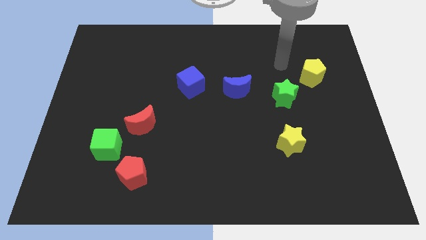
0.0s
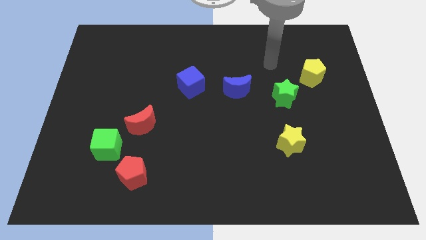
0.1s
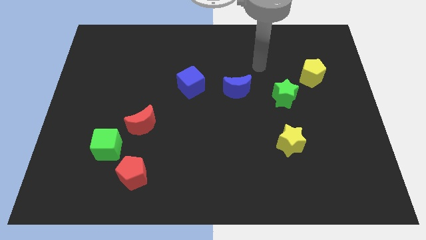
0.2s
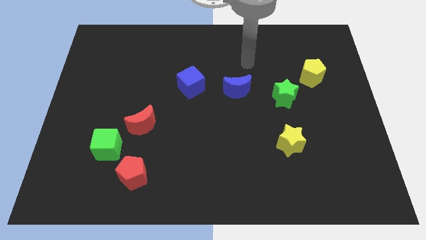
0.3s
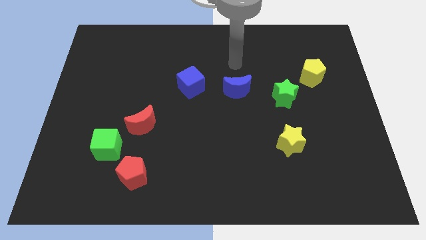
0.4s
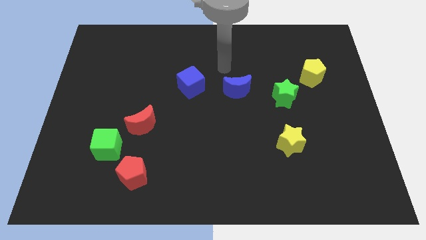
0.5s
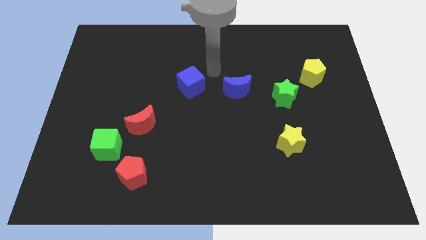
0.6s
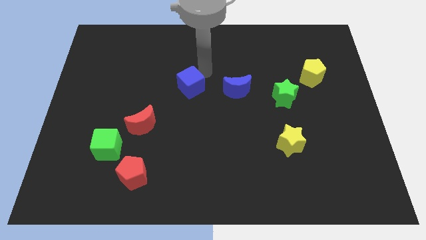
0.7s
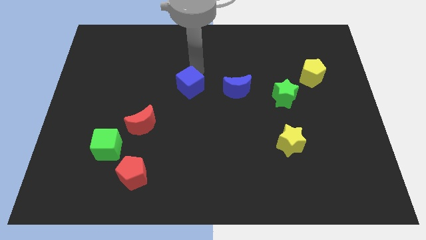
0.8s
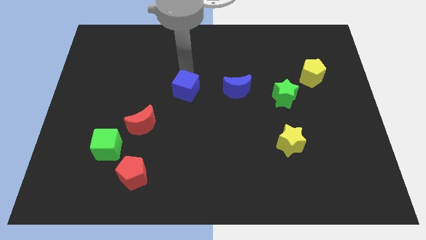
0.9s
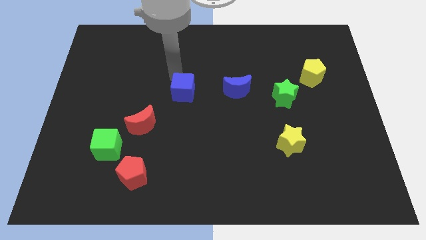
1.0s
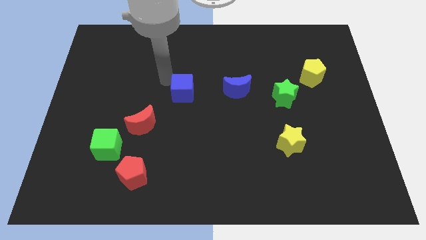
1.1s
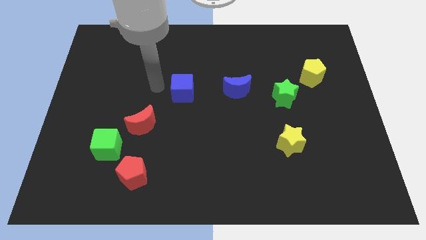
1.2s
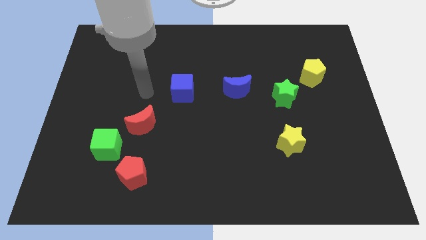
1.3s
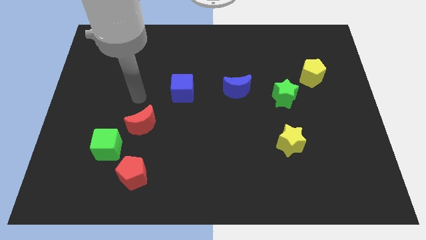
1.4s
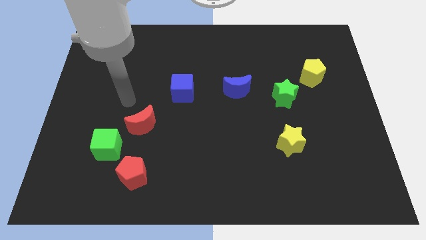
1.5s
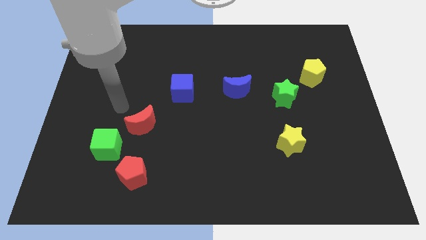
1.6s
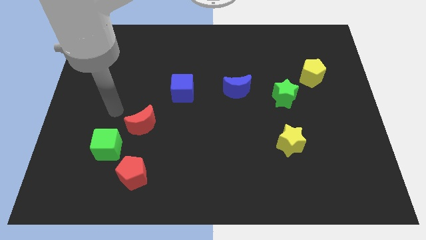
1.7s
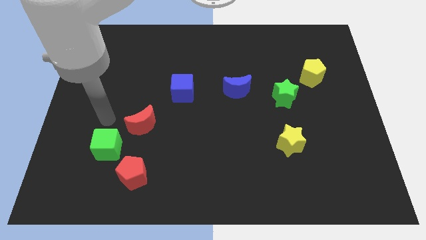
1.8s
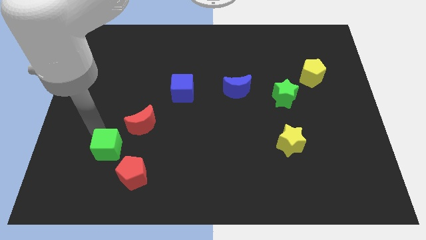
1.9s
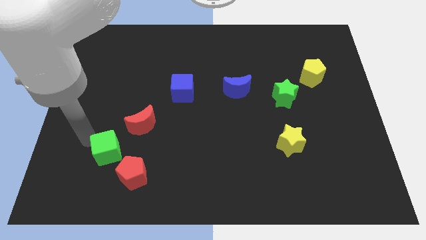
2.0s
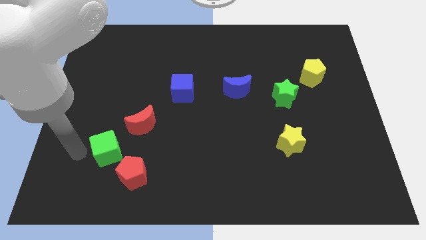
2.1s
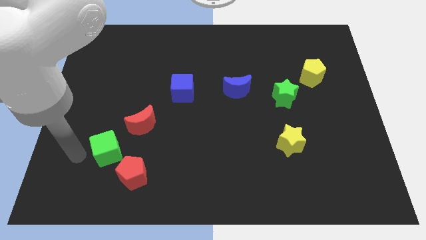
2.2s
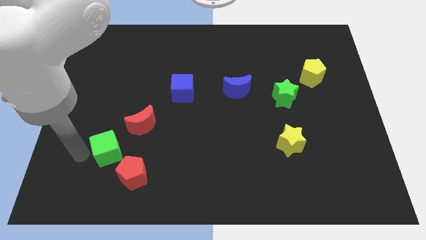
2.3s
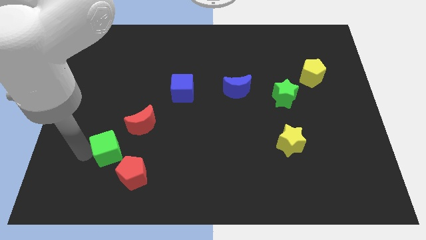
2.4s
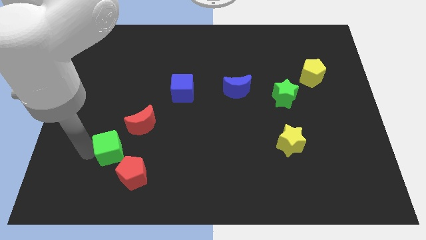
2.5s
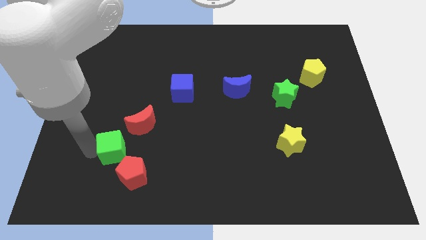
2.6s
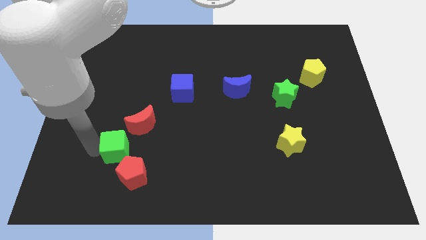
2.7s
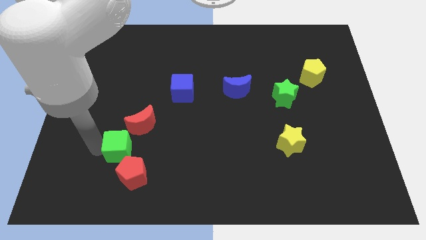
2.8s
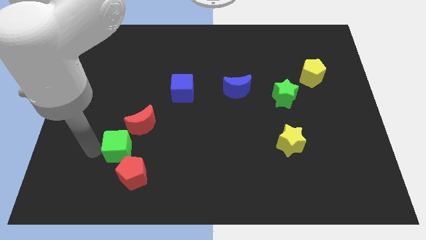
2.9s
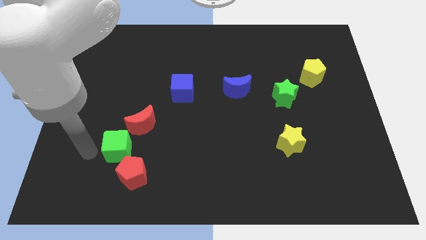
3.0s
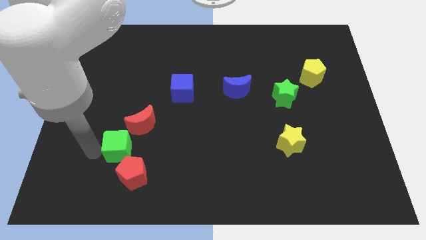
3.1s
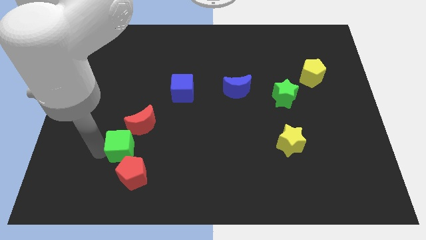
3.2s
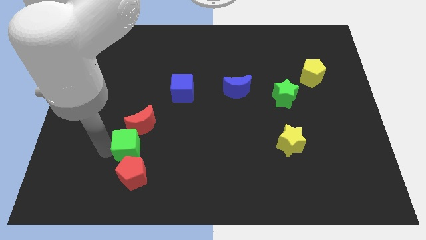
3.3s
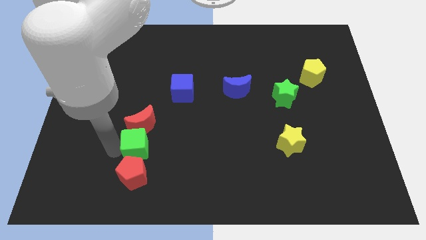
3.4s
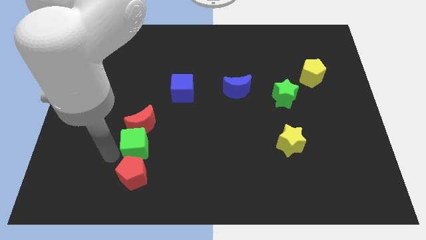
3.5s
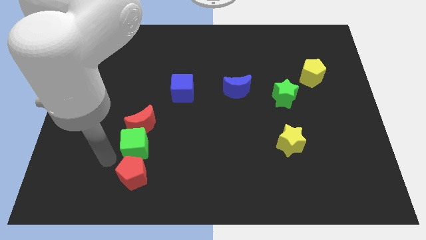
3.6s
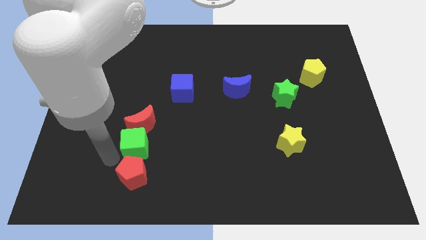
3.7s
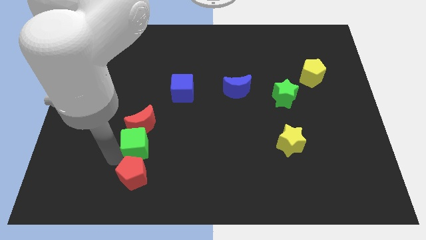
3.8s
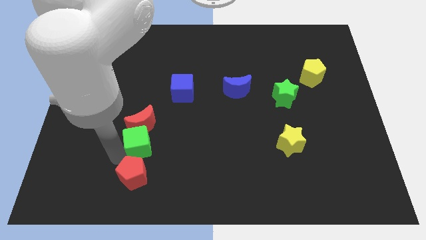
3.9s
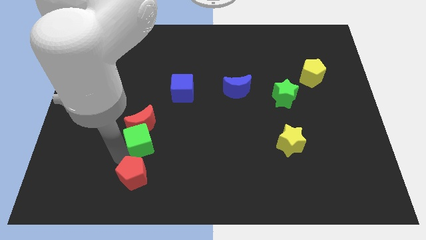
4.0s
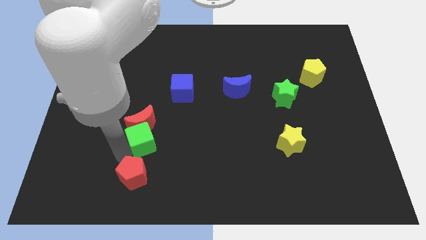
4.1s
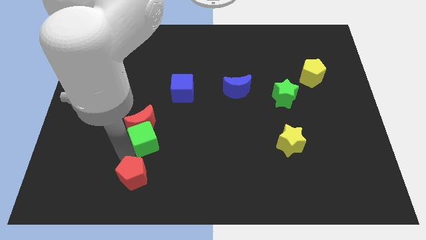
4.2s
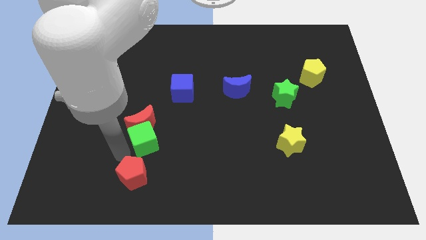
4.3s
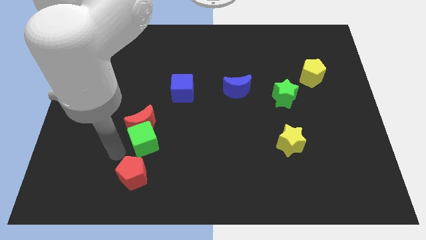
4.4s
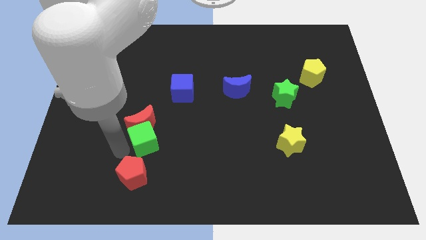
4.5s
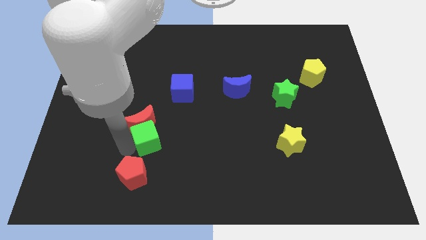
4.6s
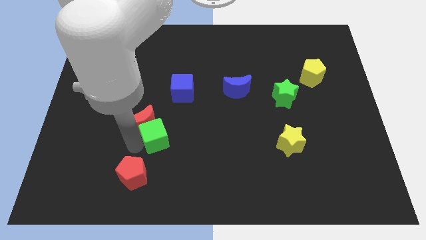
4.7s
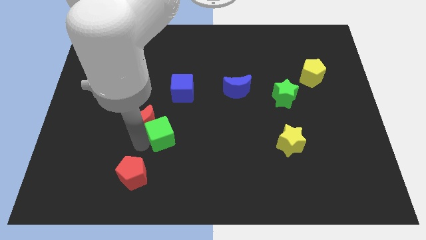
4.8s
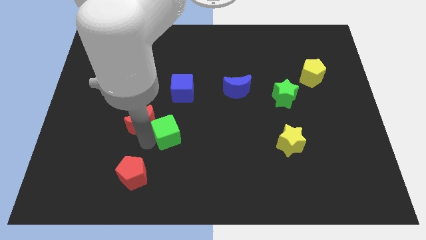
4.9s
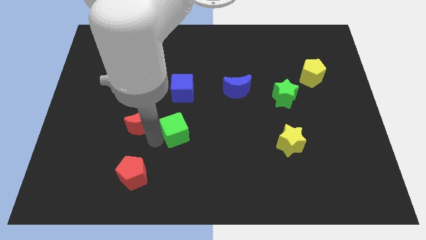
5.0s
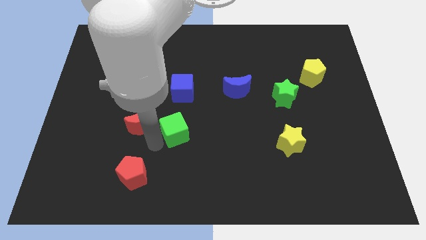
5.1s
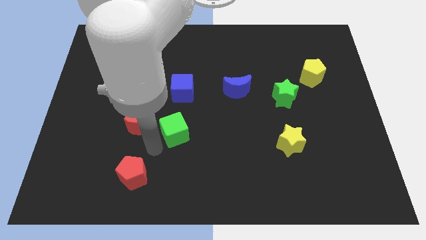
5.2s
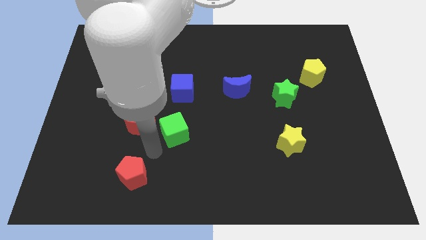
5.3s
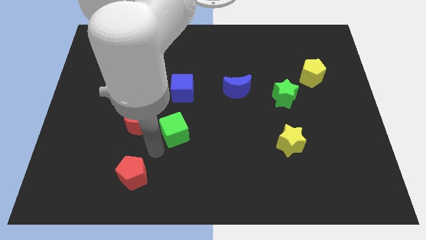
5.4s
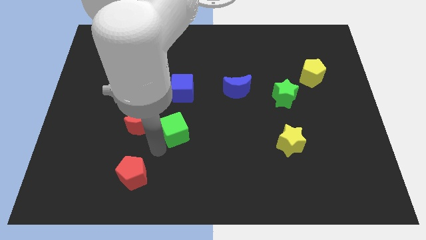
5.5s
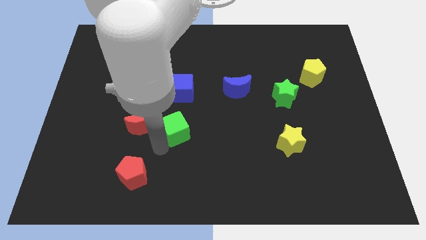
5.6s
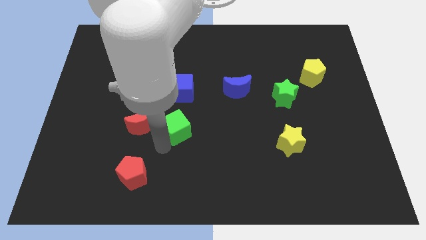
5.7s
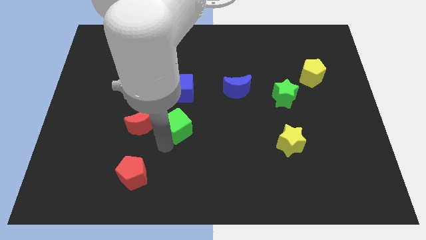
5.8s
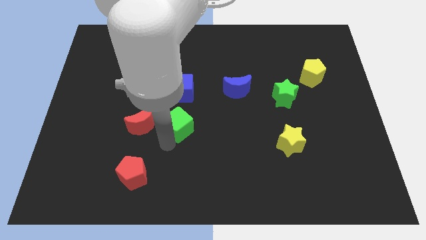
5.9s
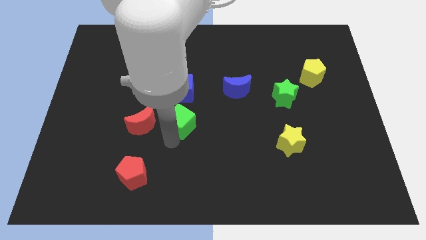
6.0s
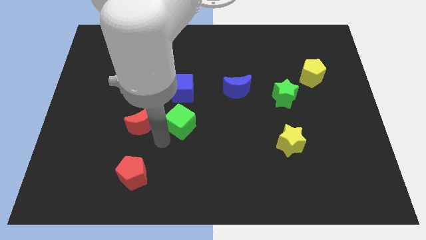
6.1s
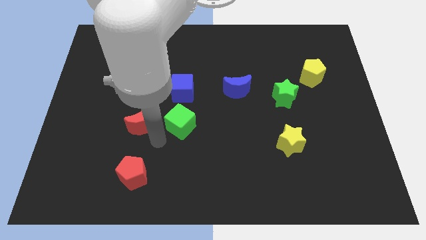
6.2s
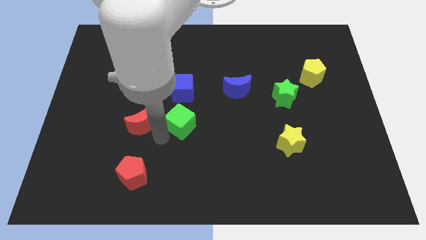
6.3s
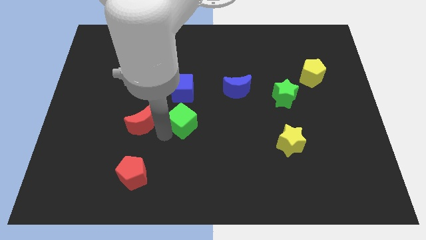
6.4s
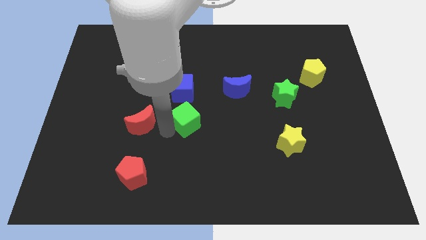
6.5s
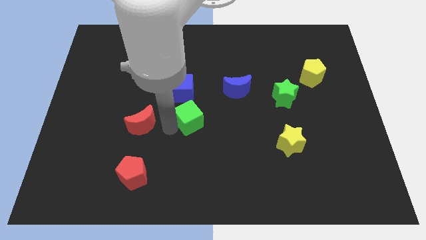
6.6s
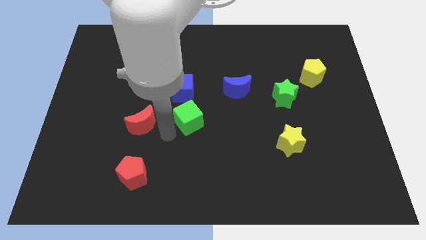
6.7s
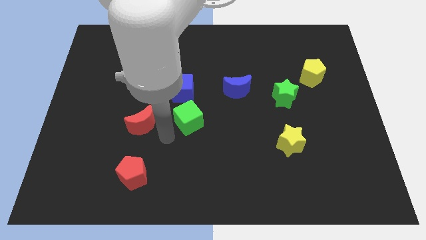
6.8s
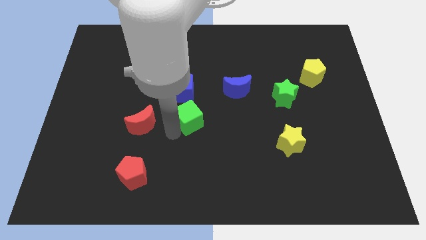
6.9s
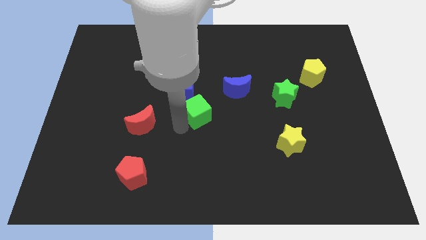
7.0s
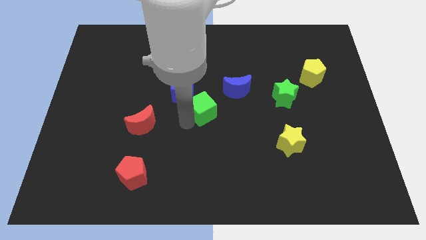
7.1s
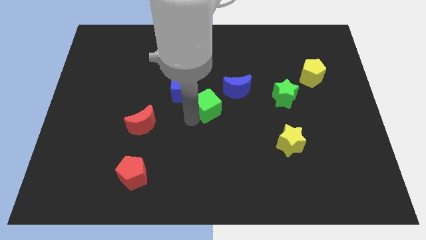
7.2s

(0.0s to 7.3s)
move the green cube upwards and right diagonally

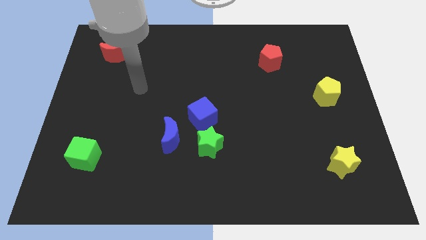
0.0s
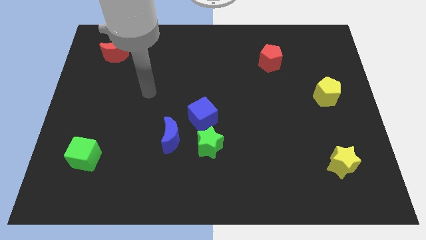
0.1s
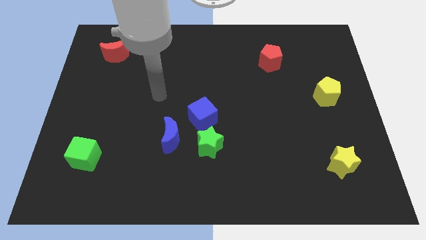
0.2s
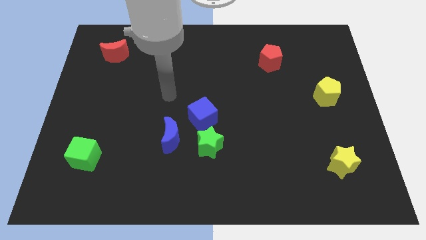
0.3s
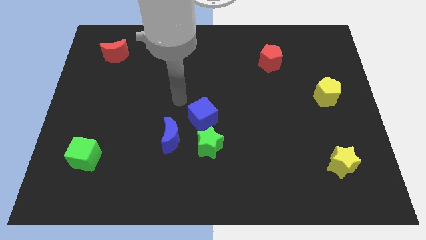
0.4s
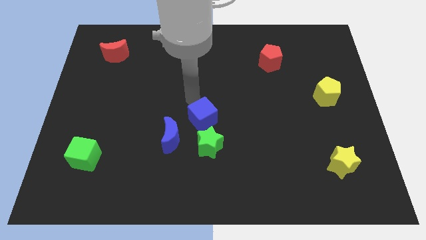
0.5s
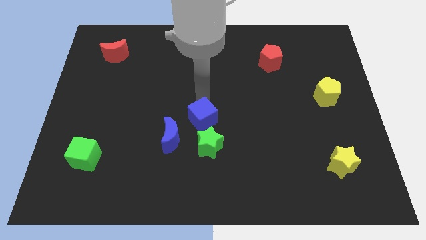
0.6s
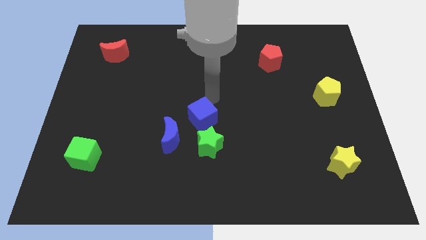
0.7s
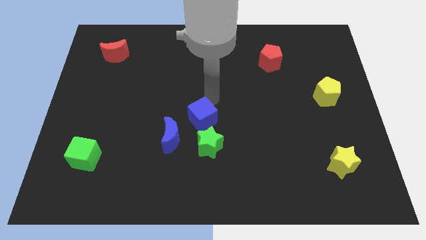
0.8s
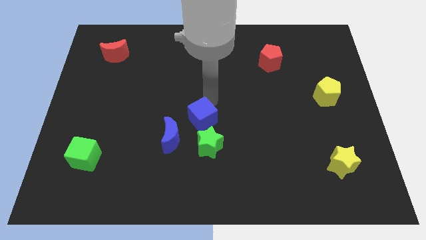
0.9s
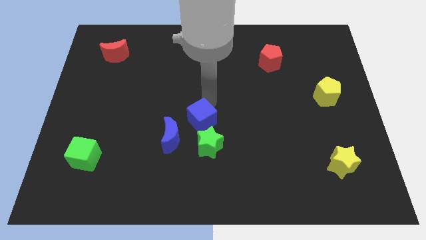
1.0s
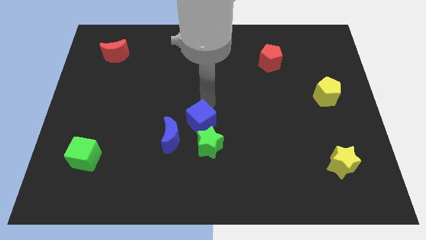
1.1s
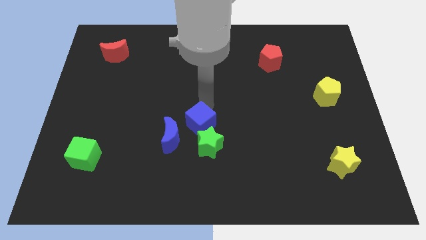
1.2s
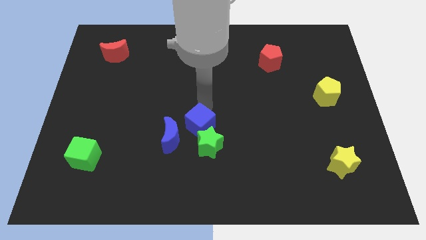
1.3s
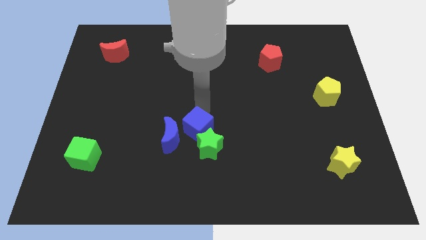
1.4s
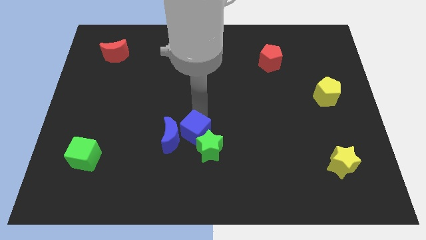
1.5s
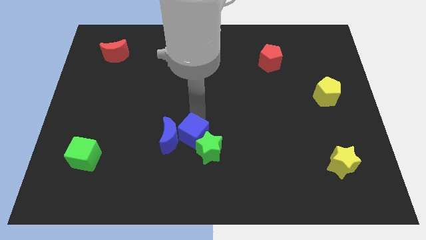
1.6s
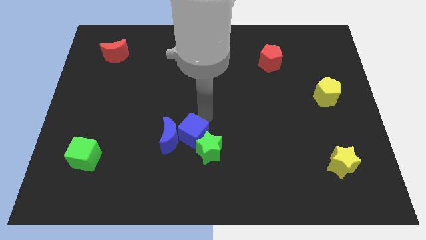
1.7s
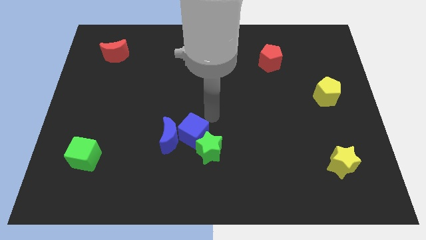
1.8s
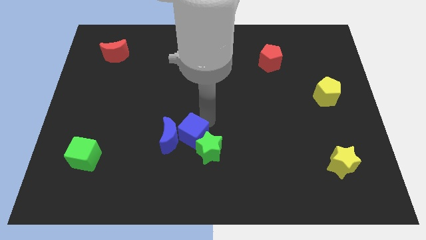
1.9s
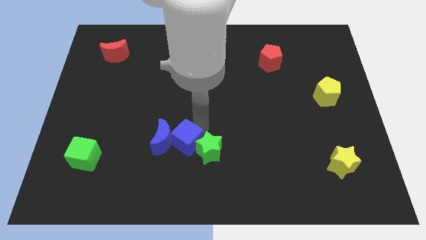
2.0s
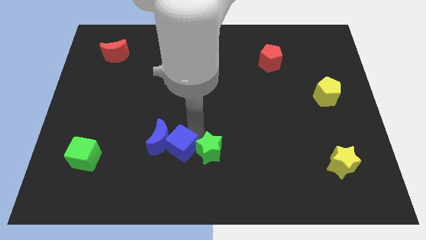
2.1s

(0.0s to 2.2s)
slide the blue cube somewhat down and left diagonally
